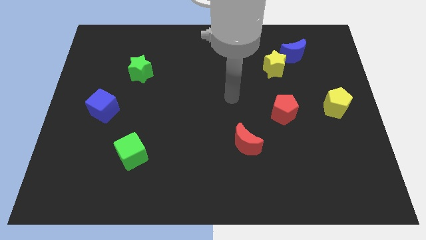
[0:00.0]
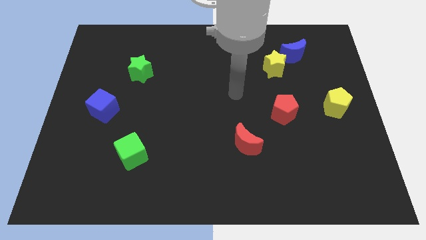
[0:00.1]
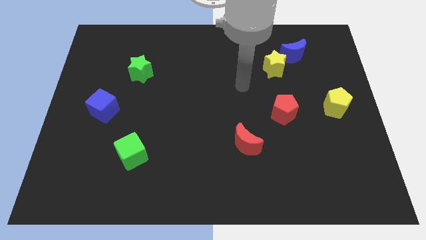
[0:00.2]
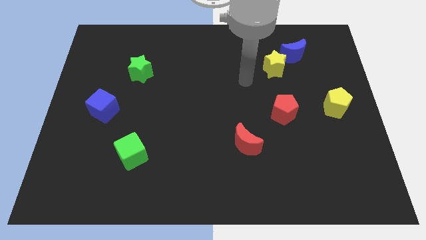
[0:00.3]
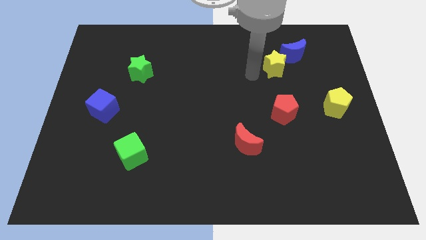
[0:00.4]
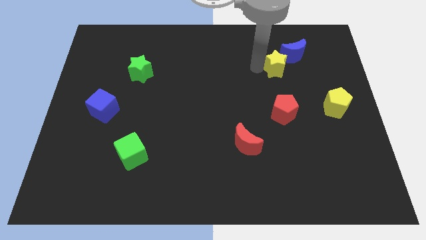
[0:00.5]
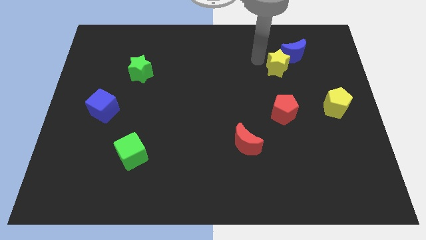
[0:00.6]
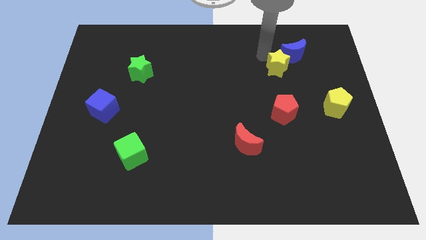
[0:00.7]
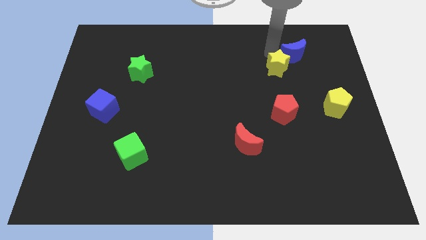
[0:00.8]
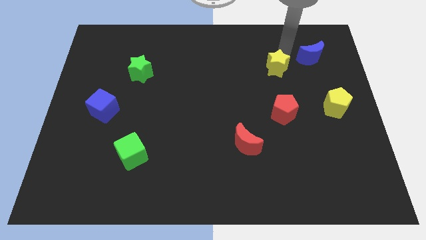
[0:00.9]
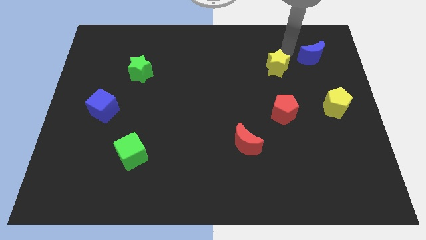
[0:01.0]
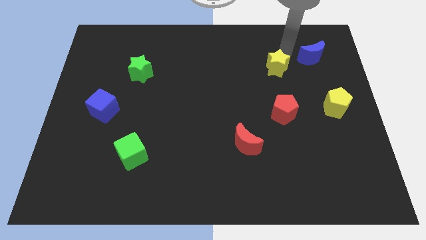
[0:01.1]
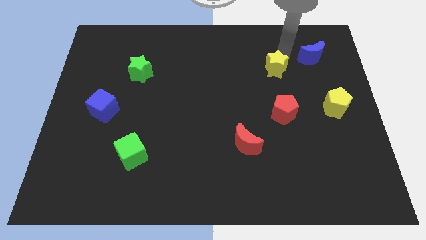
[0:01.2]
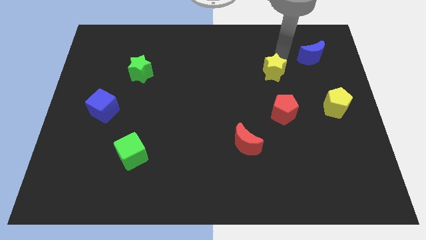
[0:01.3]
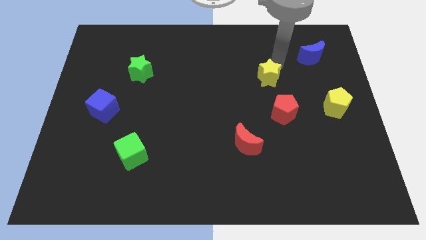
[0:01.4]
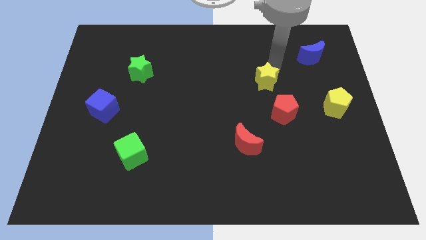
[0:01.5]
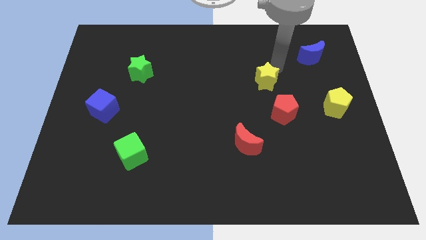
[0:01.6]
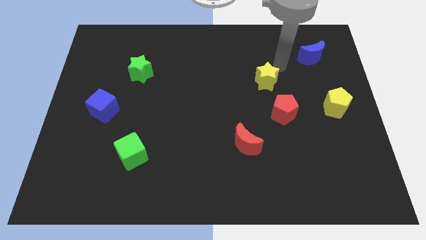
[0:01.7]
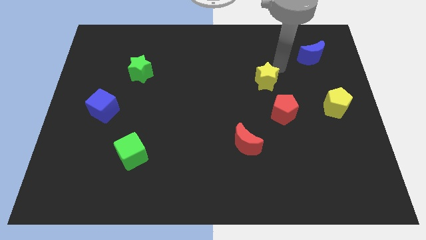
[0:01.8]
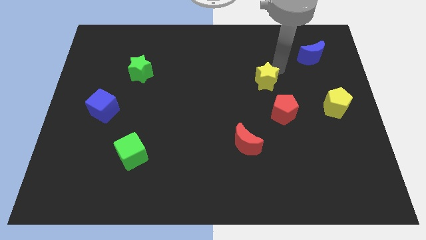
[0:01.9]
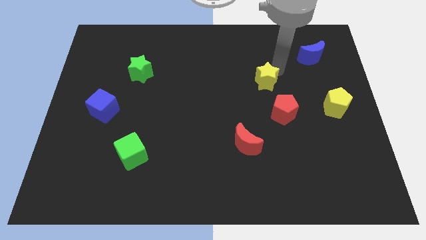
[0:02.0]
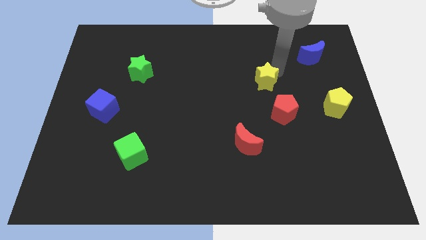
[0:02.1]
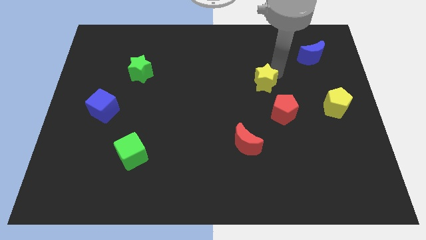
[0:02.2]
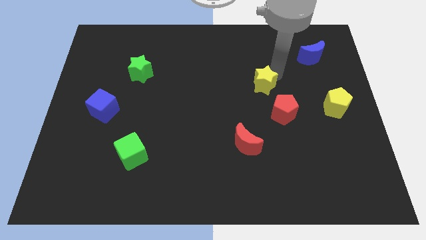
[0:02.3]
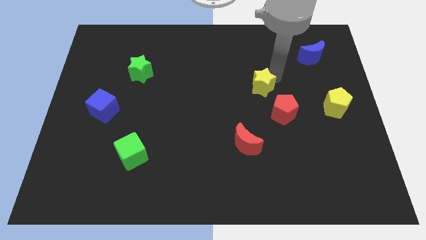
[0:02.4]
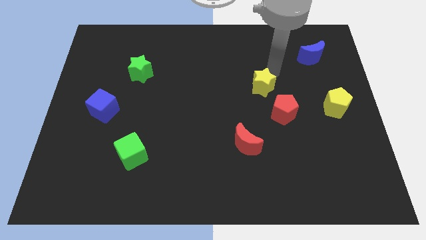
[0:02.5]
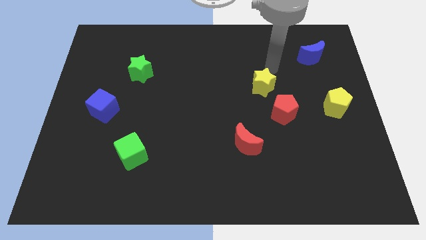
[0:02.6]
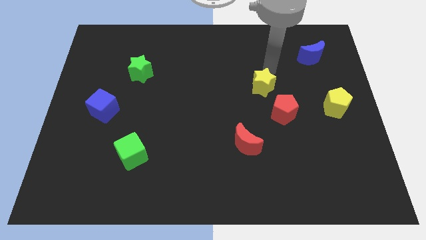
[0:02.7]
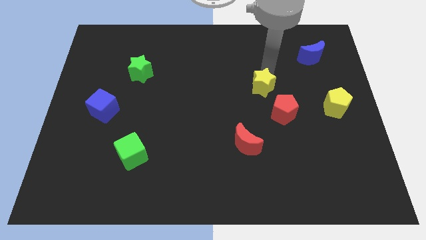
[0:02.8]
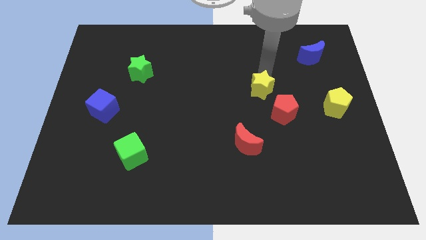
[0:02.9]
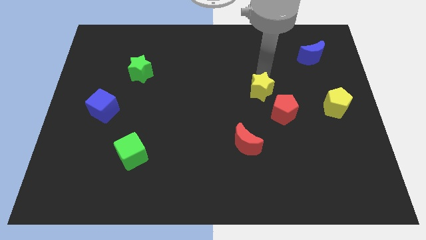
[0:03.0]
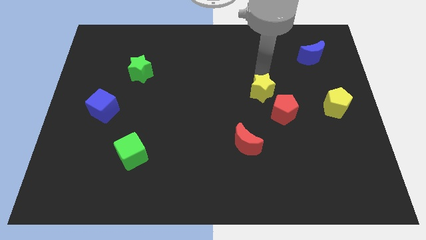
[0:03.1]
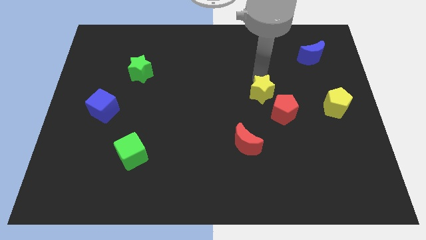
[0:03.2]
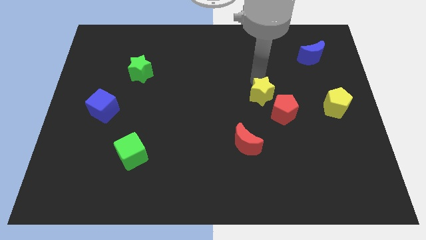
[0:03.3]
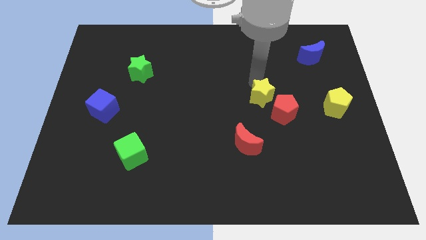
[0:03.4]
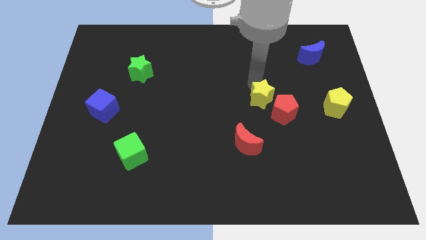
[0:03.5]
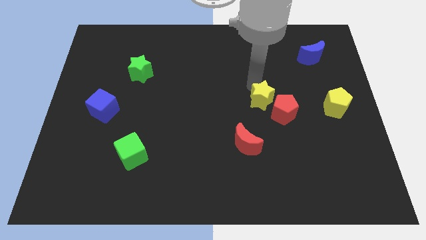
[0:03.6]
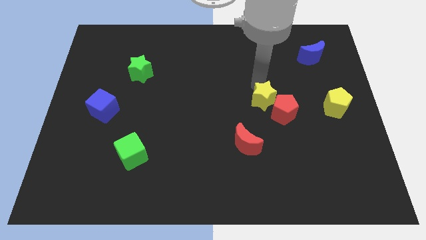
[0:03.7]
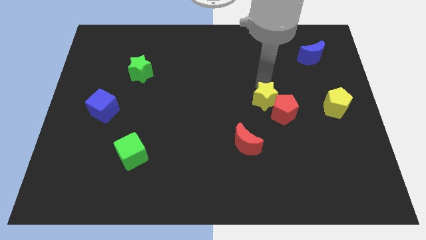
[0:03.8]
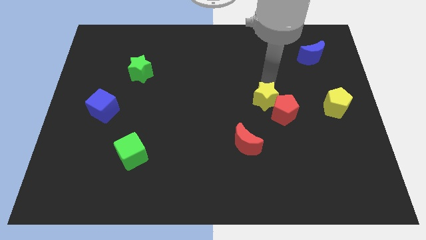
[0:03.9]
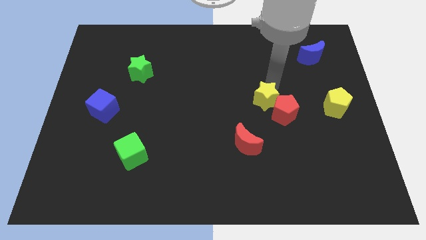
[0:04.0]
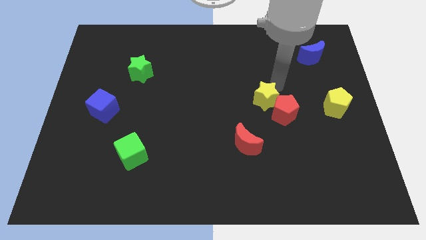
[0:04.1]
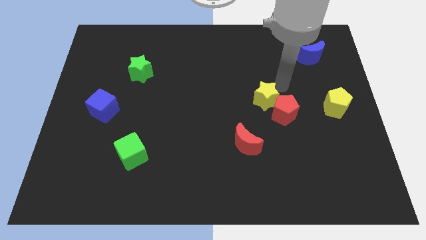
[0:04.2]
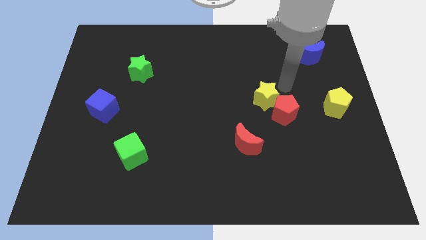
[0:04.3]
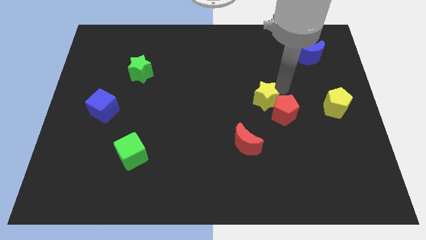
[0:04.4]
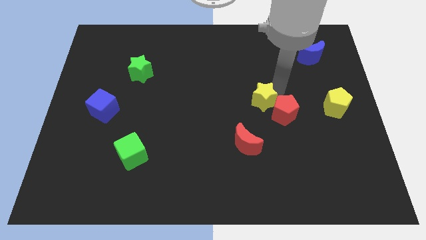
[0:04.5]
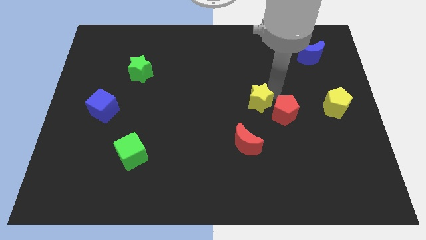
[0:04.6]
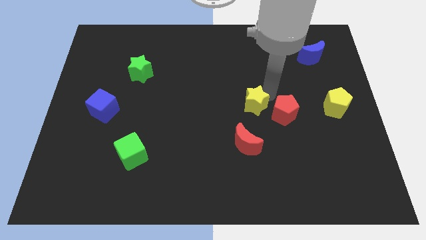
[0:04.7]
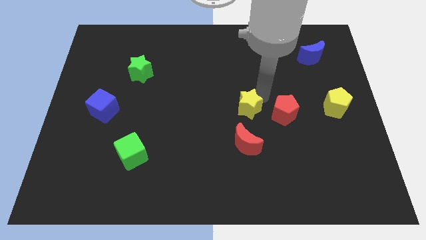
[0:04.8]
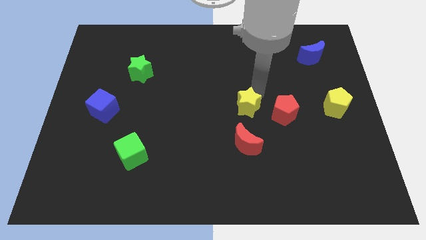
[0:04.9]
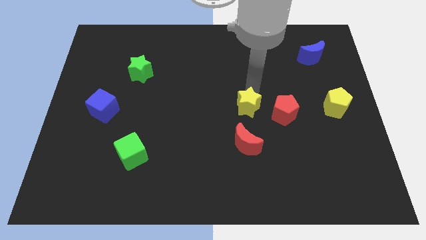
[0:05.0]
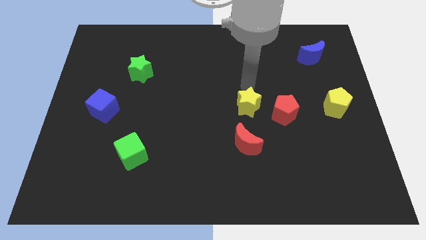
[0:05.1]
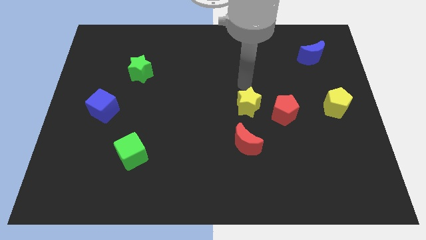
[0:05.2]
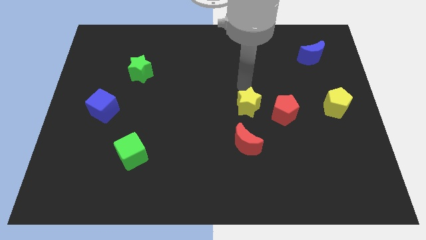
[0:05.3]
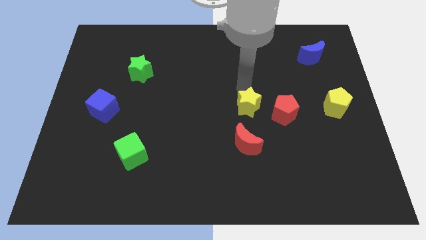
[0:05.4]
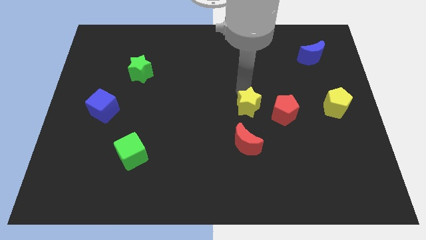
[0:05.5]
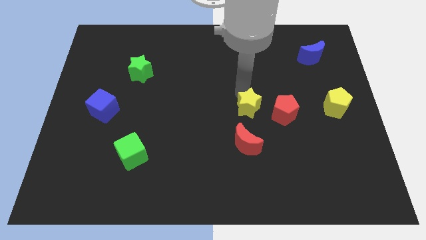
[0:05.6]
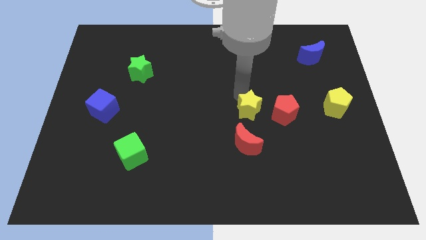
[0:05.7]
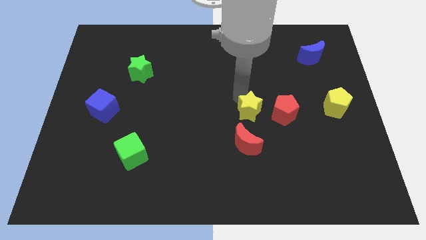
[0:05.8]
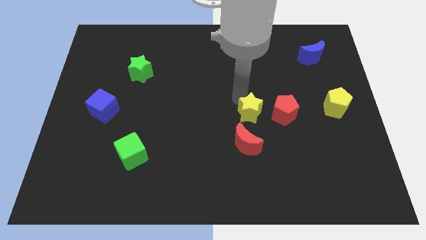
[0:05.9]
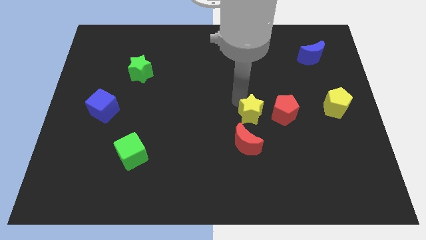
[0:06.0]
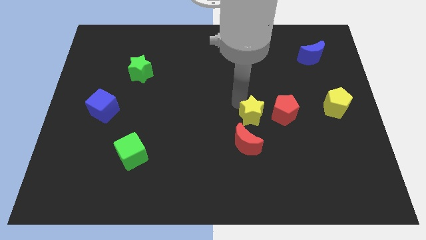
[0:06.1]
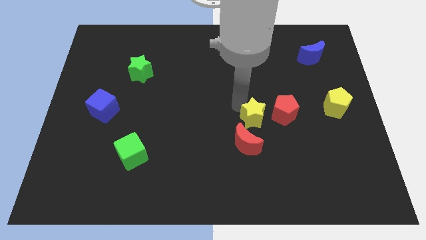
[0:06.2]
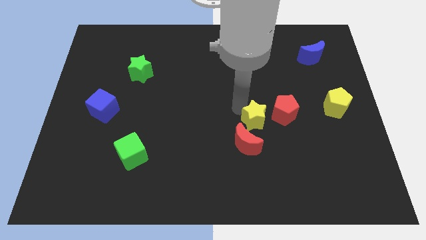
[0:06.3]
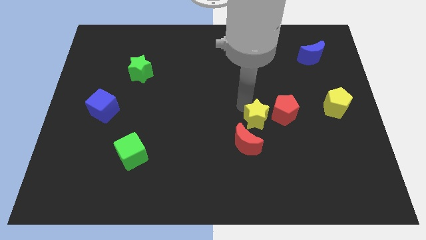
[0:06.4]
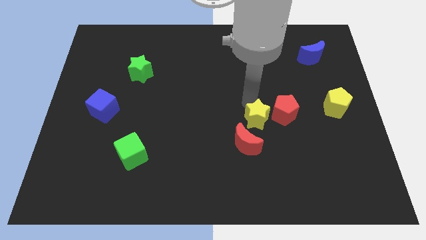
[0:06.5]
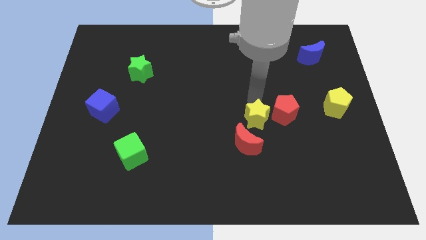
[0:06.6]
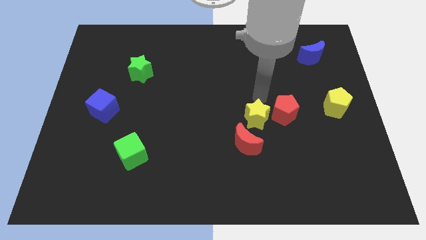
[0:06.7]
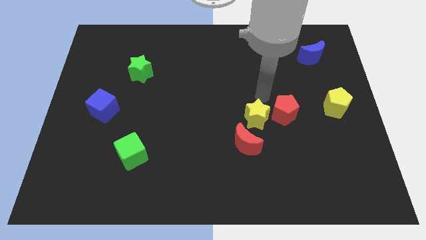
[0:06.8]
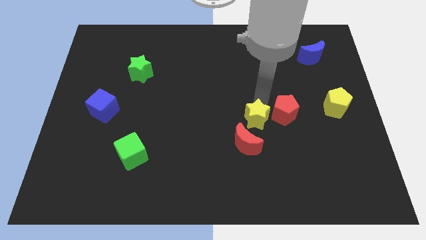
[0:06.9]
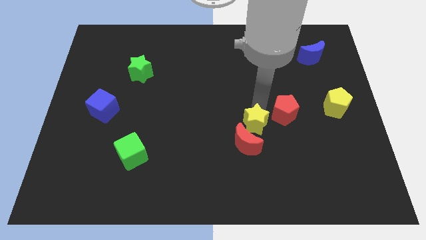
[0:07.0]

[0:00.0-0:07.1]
push the yellow star towards the red moon
